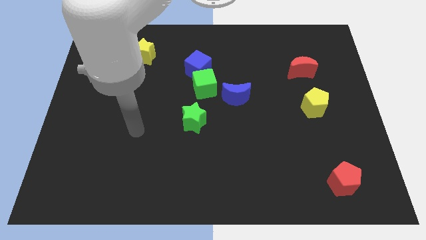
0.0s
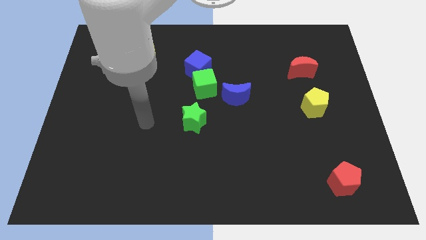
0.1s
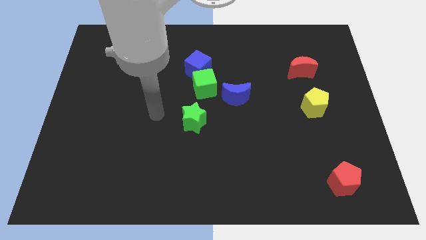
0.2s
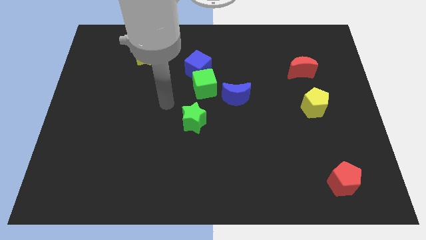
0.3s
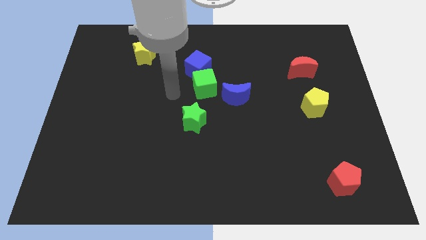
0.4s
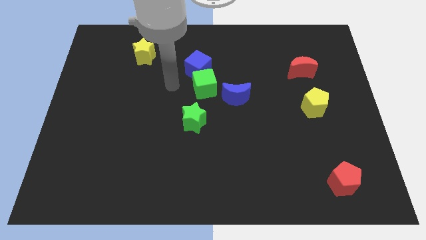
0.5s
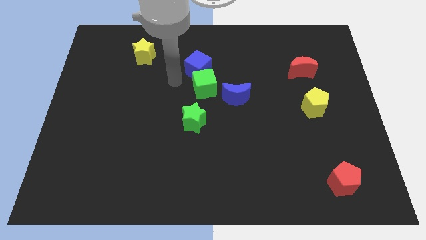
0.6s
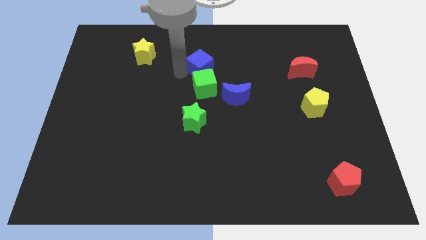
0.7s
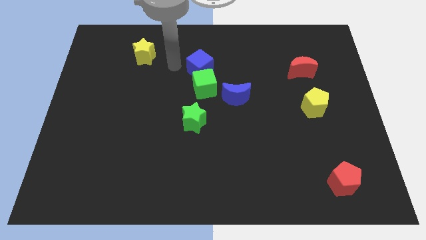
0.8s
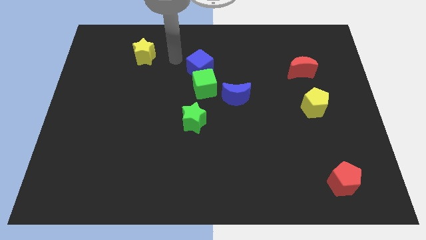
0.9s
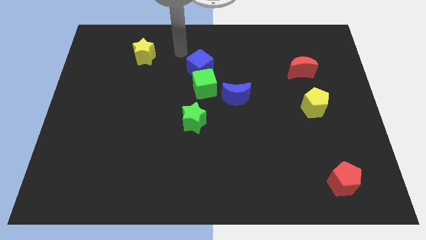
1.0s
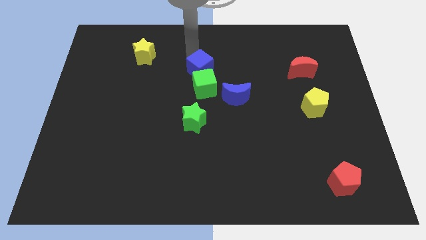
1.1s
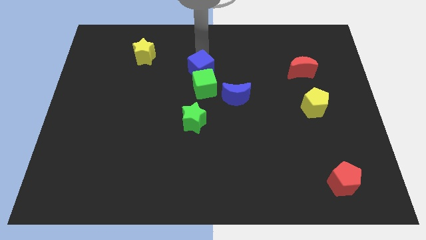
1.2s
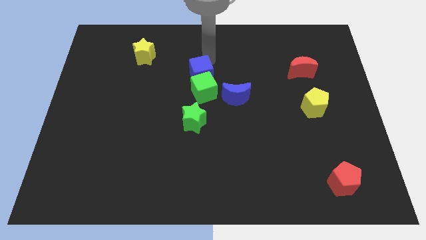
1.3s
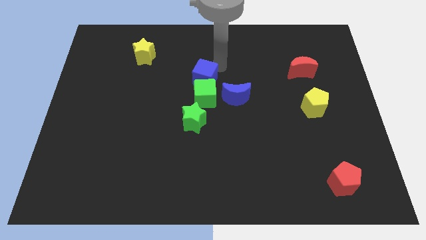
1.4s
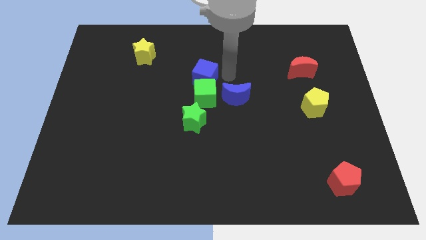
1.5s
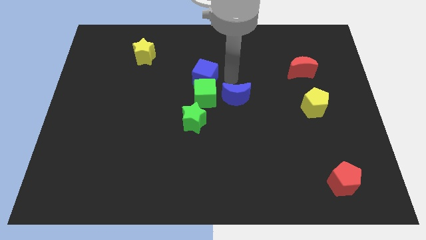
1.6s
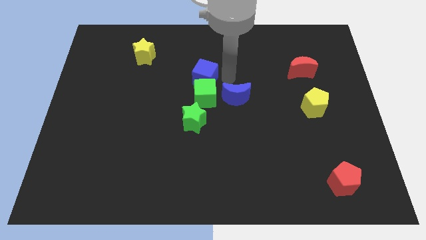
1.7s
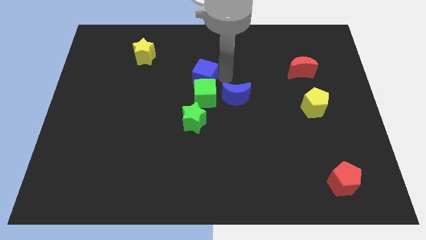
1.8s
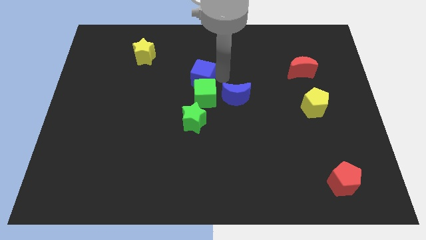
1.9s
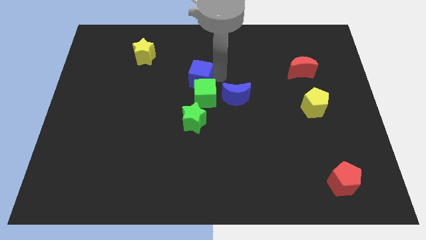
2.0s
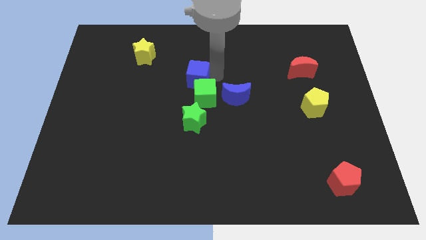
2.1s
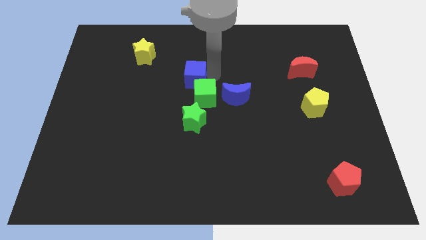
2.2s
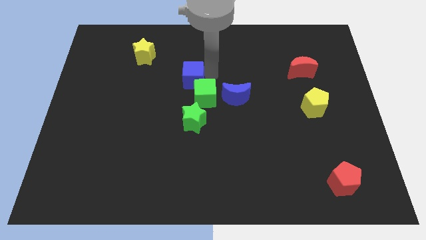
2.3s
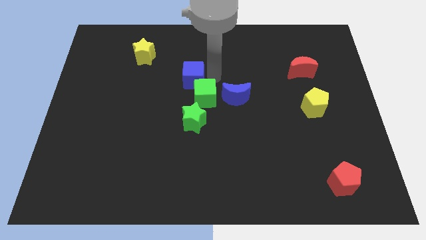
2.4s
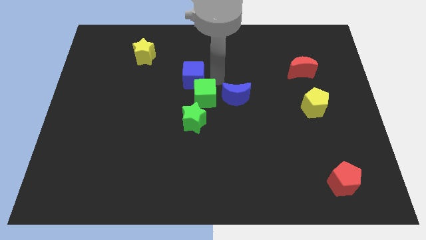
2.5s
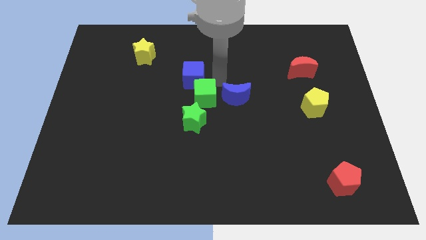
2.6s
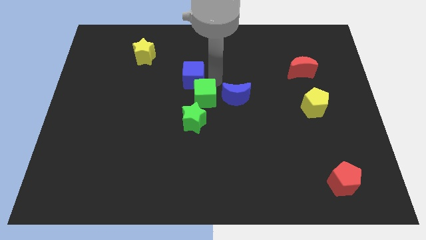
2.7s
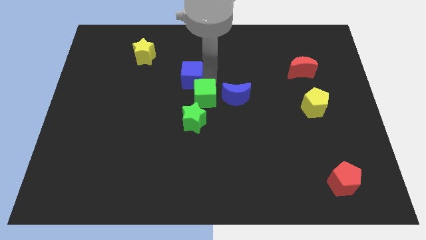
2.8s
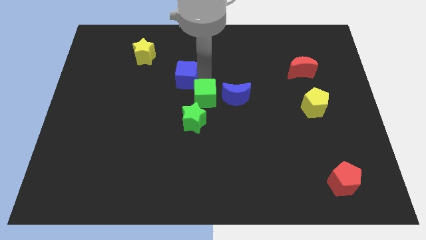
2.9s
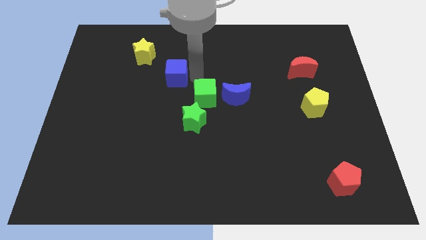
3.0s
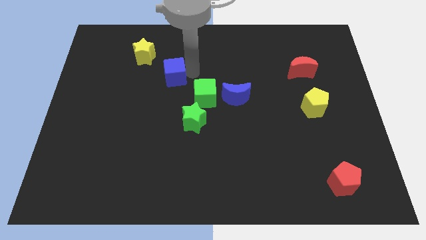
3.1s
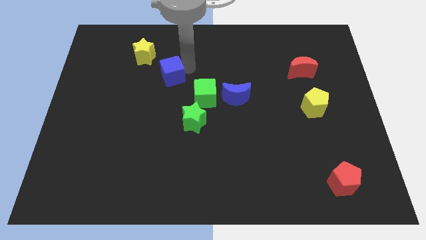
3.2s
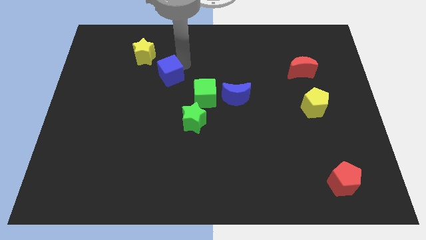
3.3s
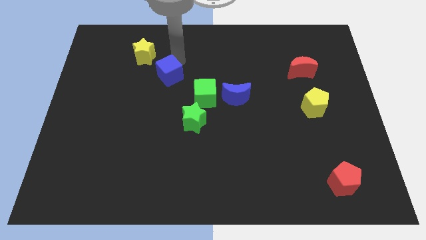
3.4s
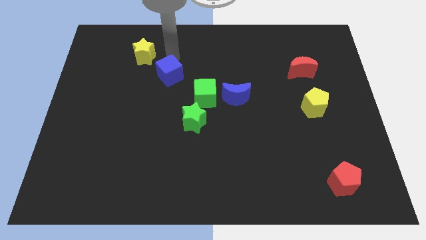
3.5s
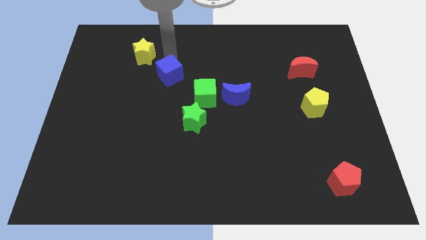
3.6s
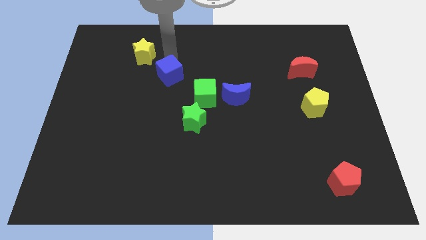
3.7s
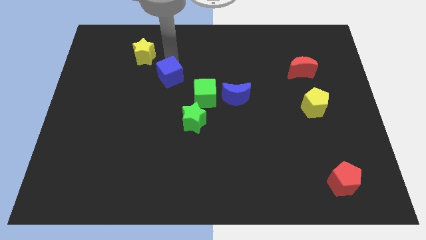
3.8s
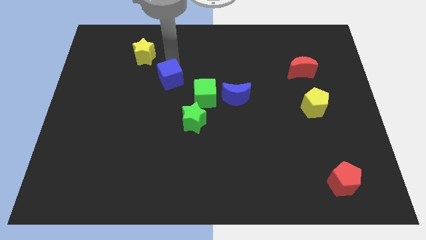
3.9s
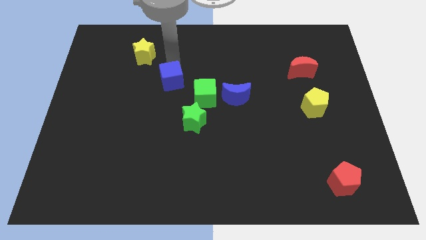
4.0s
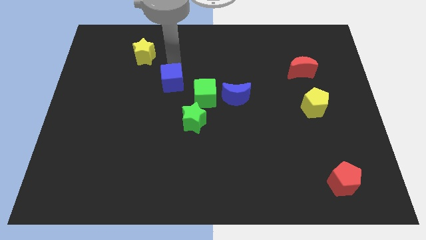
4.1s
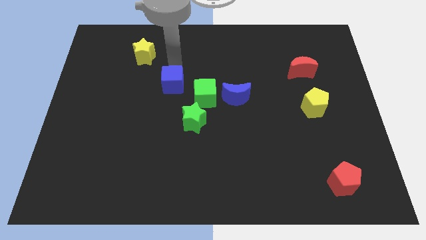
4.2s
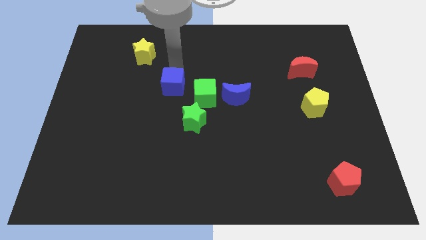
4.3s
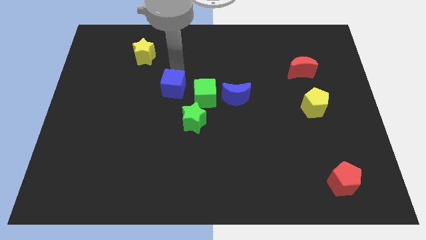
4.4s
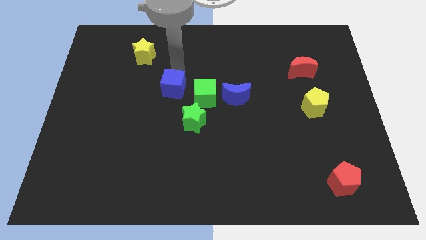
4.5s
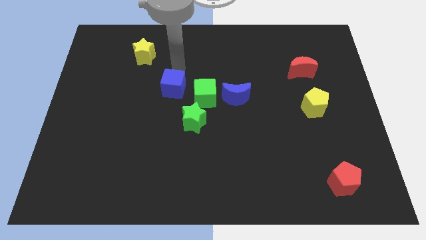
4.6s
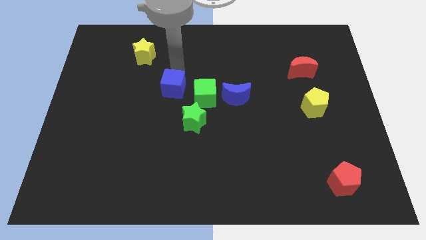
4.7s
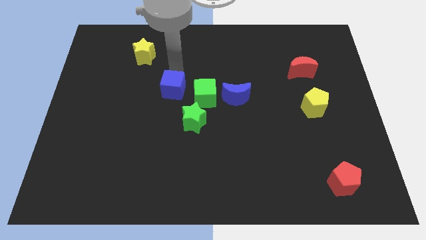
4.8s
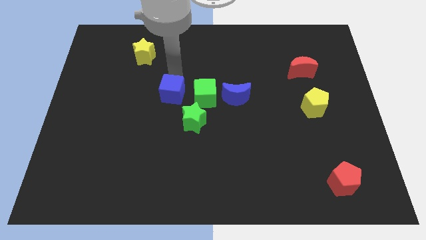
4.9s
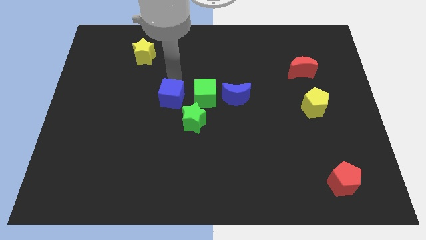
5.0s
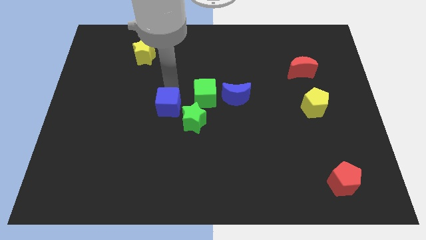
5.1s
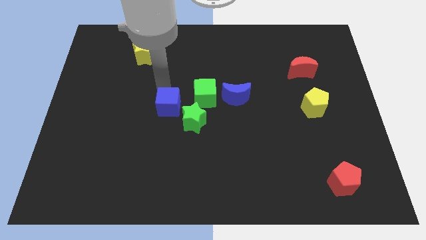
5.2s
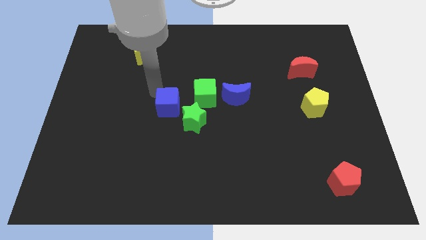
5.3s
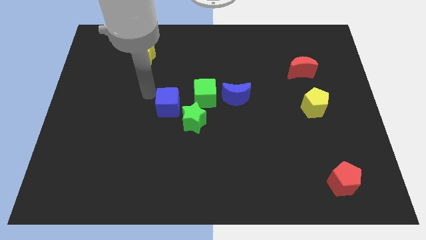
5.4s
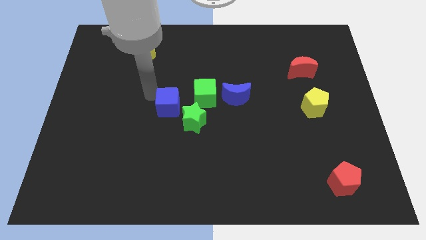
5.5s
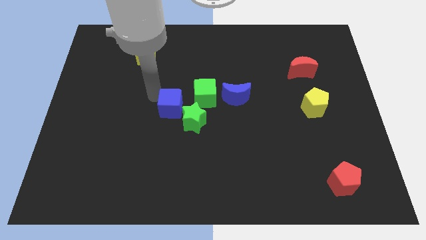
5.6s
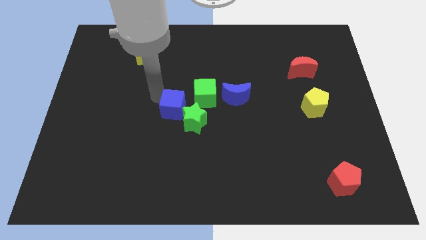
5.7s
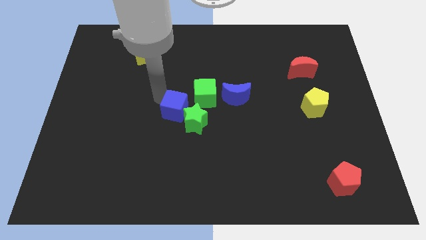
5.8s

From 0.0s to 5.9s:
push the blue cube close to the green star

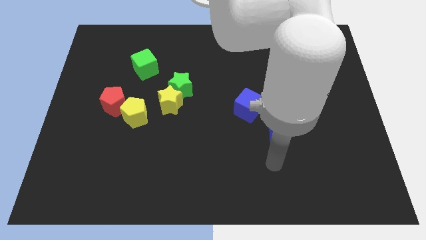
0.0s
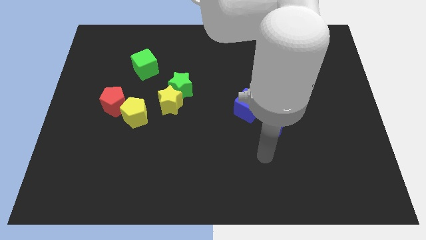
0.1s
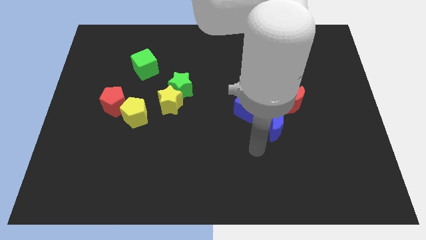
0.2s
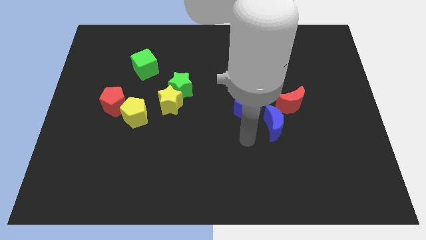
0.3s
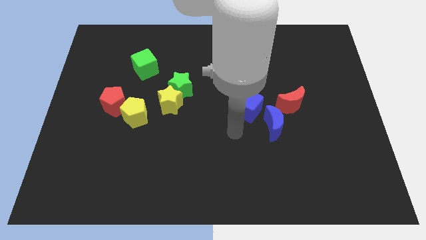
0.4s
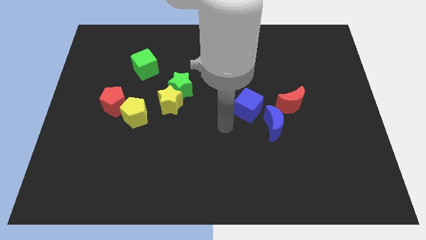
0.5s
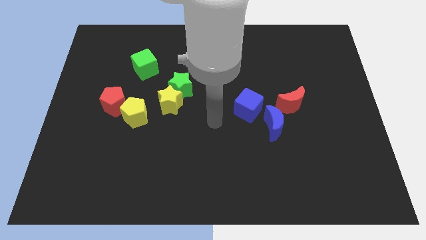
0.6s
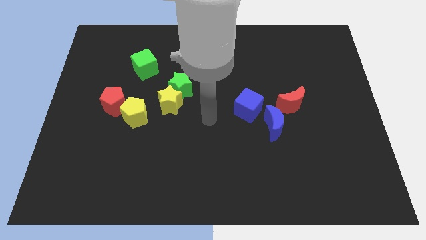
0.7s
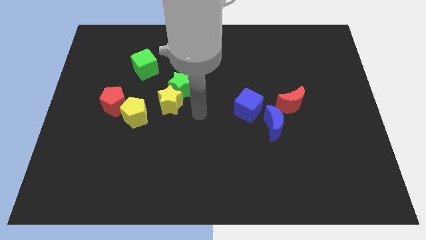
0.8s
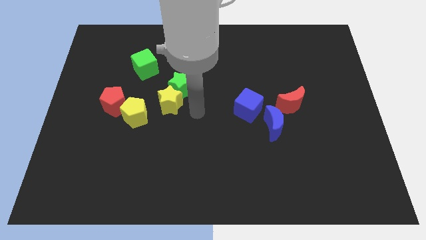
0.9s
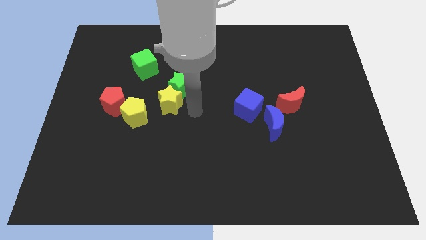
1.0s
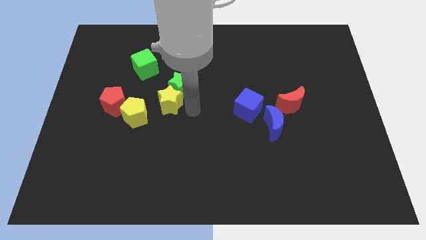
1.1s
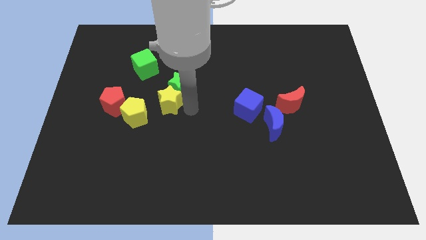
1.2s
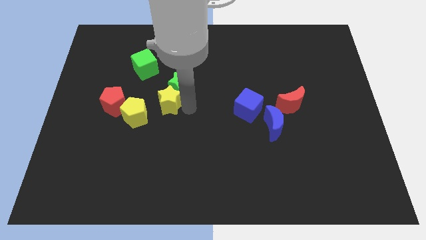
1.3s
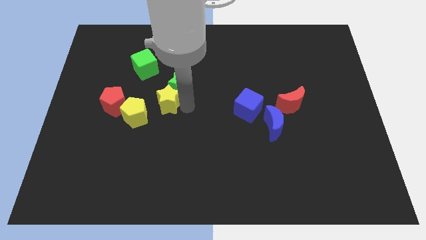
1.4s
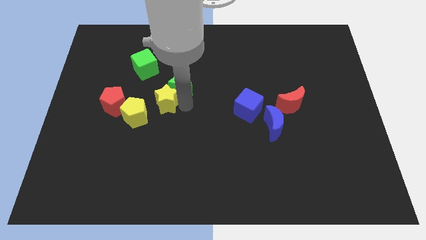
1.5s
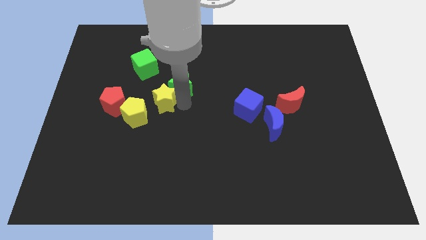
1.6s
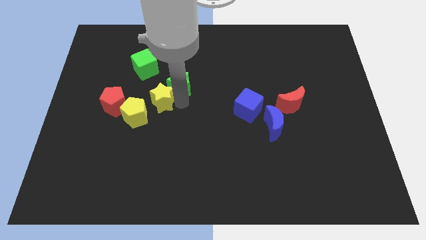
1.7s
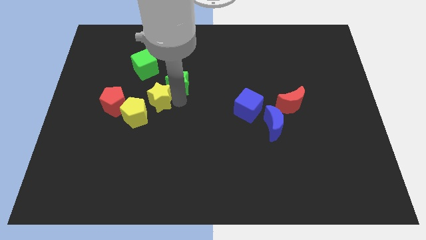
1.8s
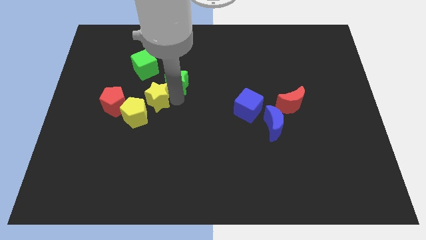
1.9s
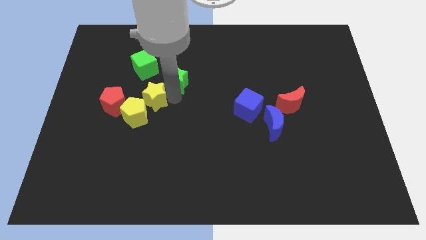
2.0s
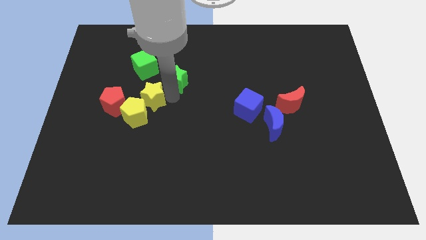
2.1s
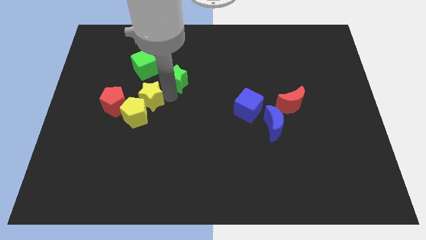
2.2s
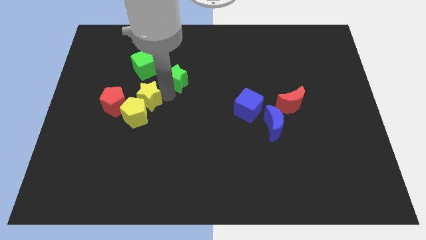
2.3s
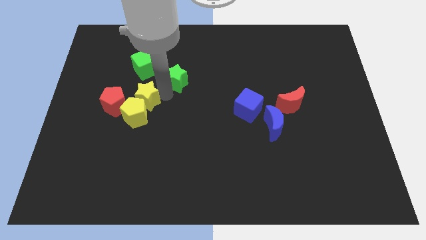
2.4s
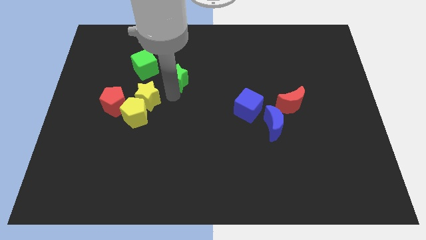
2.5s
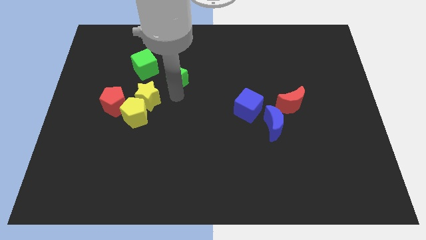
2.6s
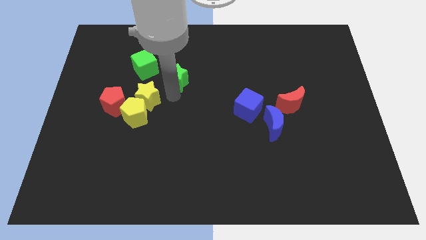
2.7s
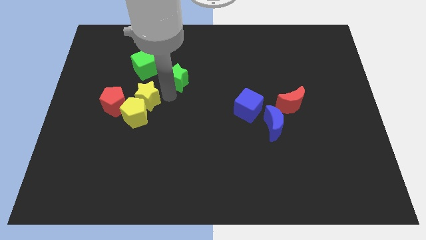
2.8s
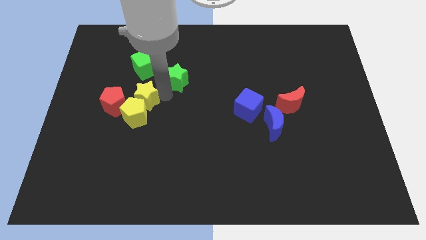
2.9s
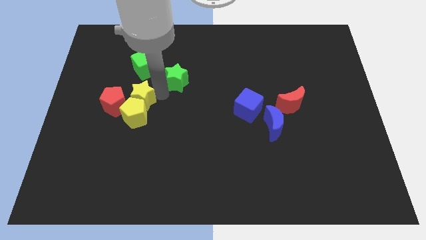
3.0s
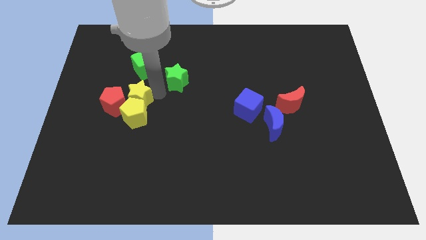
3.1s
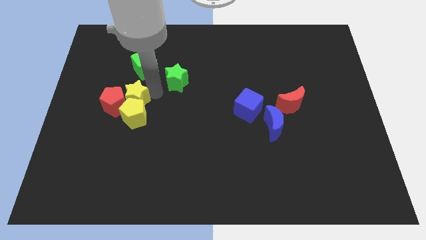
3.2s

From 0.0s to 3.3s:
put the yellow star to the red pentagon
